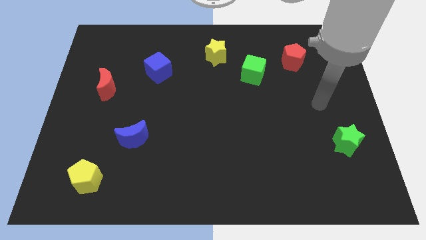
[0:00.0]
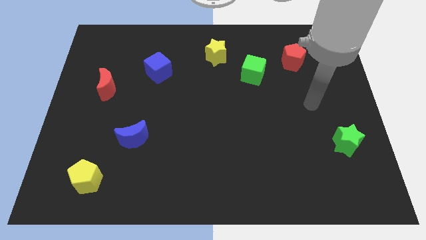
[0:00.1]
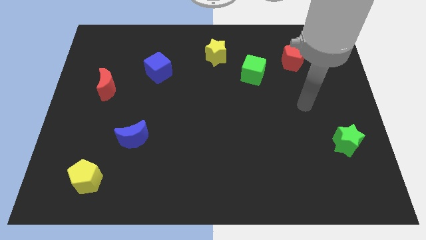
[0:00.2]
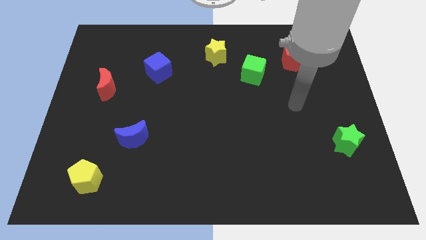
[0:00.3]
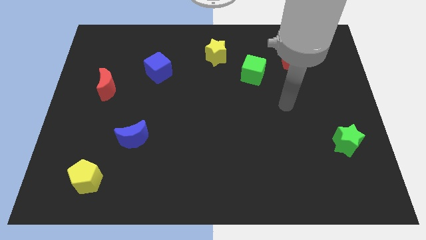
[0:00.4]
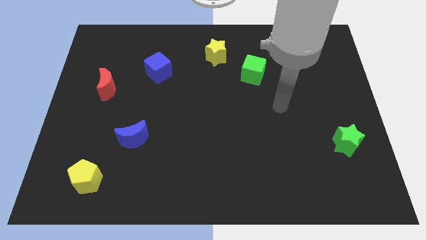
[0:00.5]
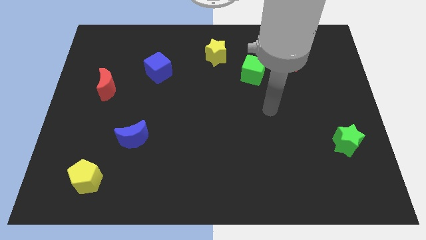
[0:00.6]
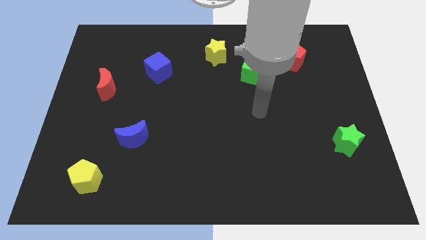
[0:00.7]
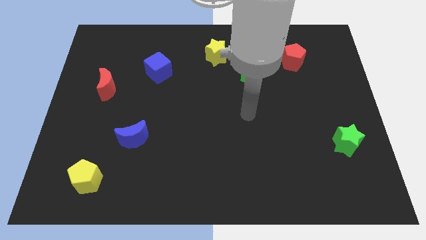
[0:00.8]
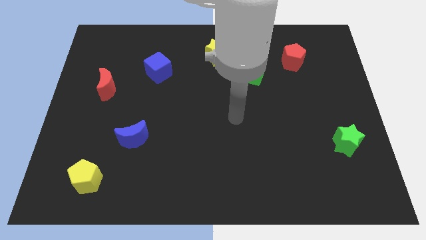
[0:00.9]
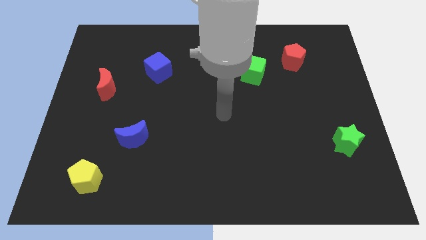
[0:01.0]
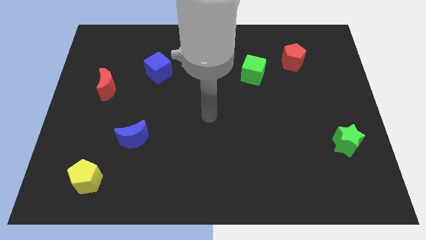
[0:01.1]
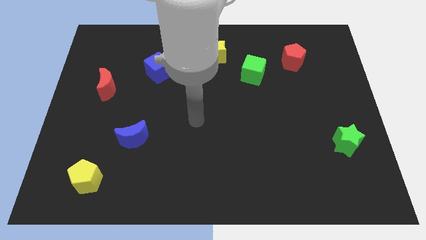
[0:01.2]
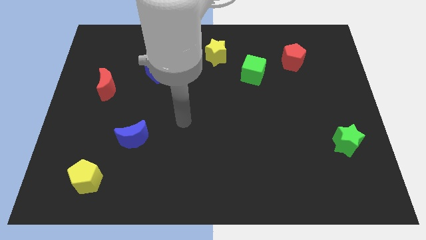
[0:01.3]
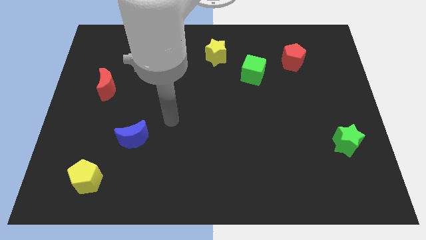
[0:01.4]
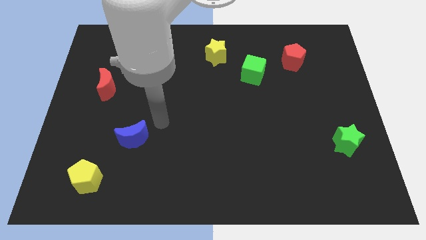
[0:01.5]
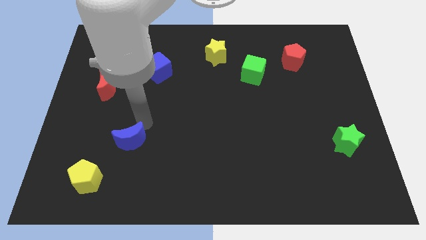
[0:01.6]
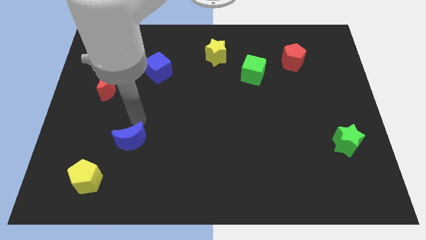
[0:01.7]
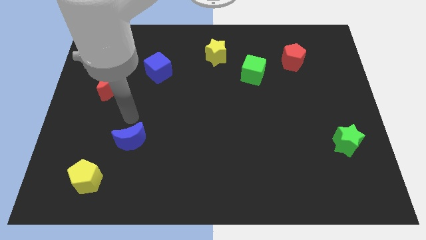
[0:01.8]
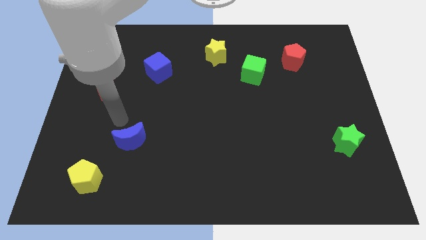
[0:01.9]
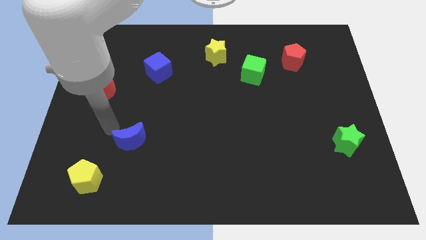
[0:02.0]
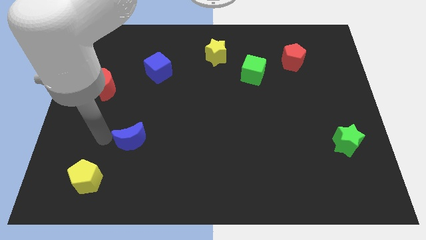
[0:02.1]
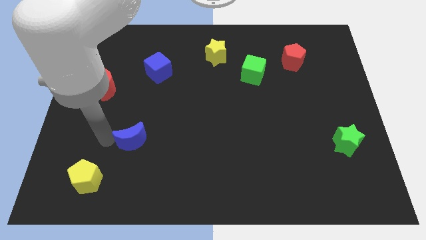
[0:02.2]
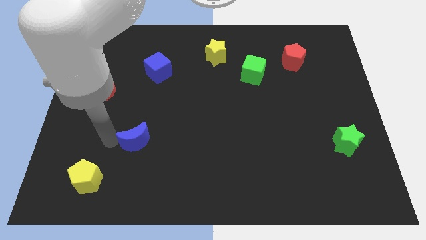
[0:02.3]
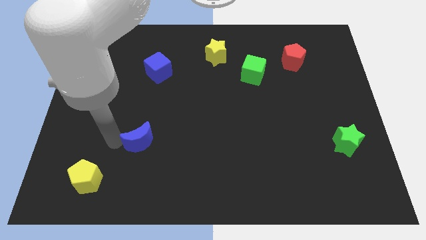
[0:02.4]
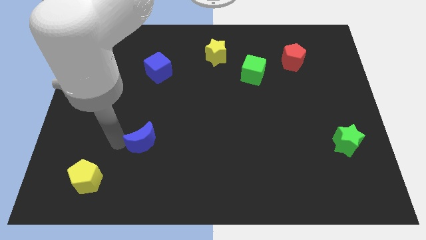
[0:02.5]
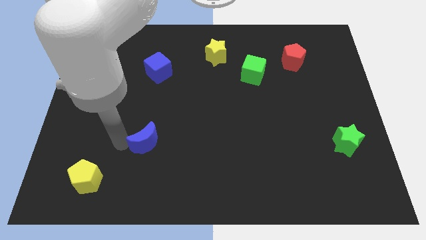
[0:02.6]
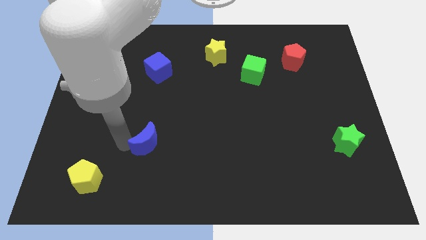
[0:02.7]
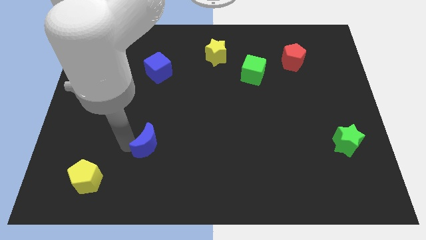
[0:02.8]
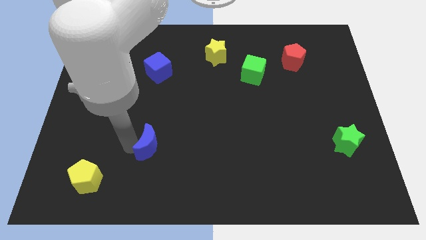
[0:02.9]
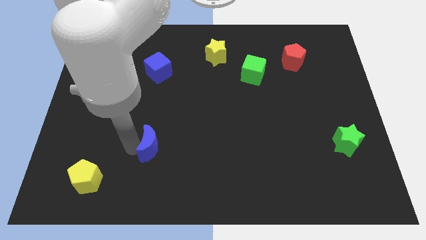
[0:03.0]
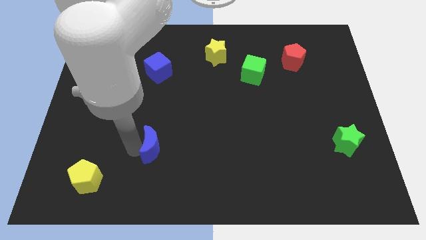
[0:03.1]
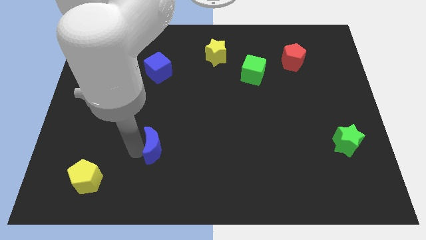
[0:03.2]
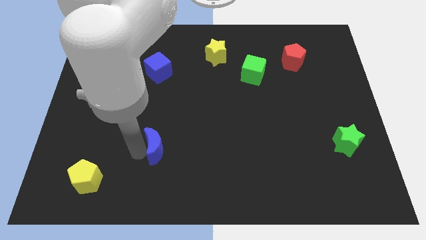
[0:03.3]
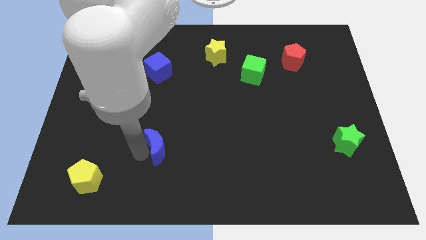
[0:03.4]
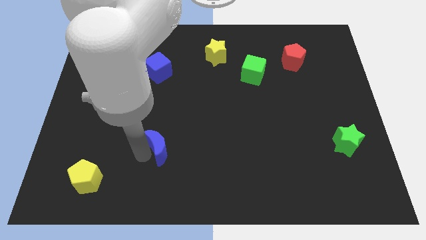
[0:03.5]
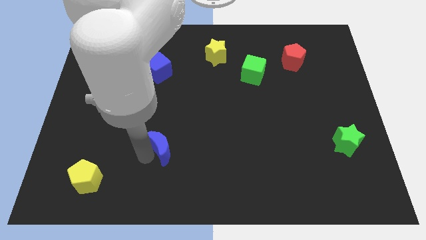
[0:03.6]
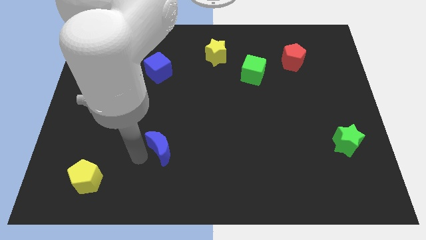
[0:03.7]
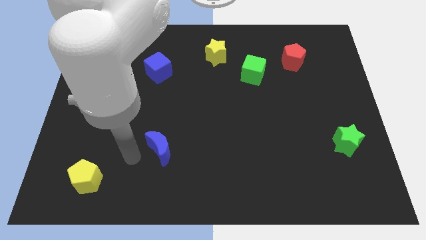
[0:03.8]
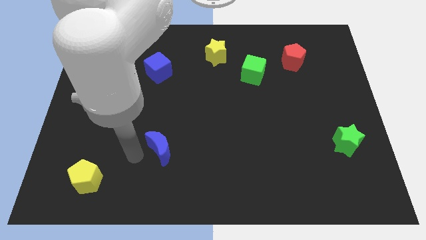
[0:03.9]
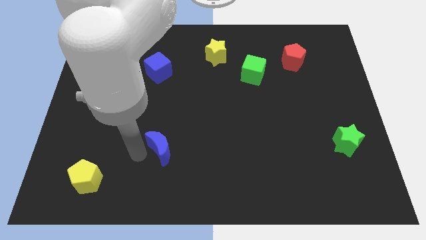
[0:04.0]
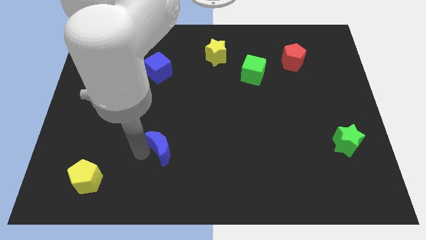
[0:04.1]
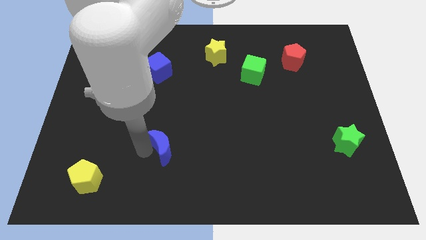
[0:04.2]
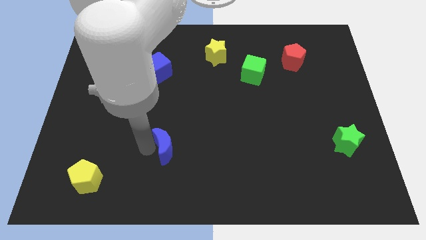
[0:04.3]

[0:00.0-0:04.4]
slightly slide the blue moon to the right

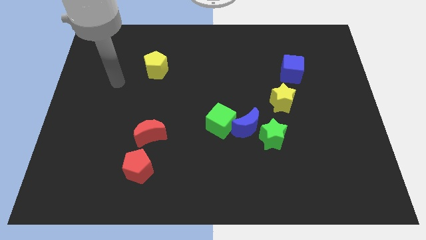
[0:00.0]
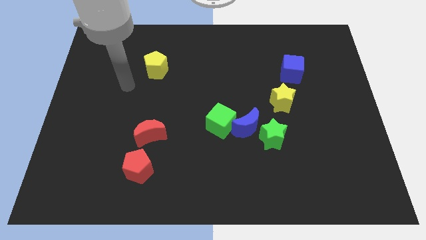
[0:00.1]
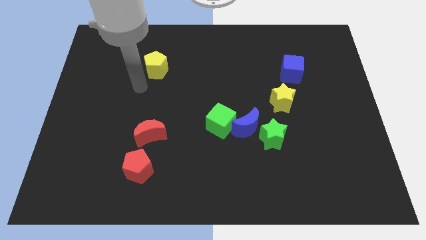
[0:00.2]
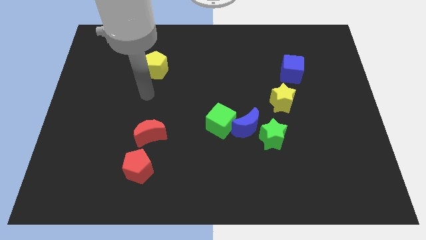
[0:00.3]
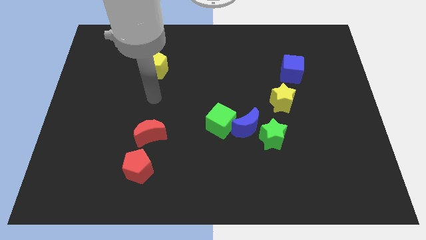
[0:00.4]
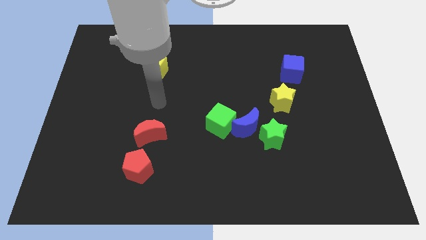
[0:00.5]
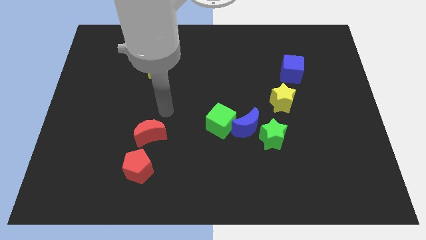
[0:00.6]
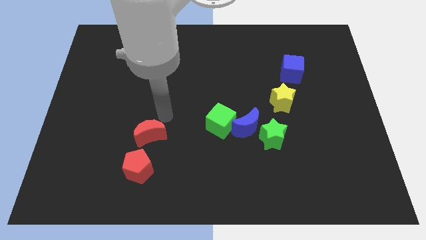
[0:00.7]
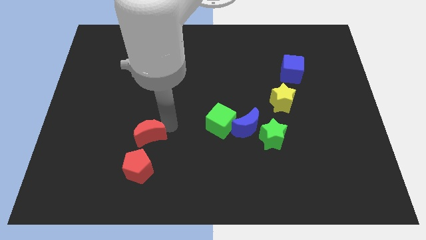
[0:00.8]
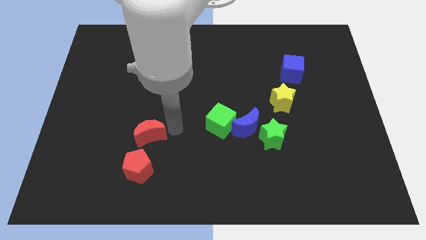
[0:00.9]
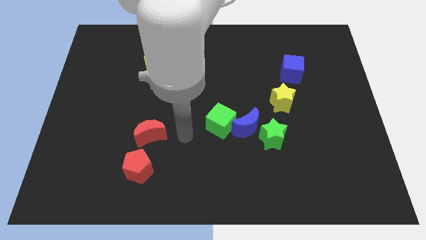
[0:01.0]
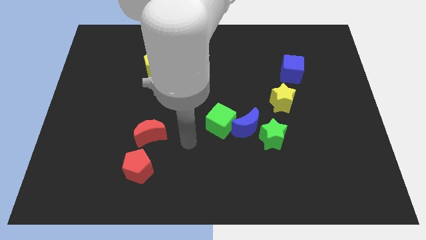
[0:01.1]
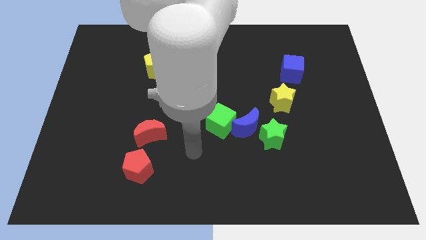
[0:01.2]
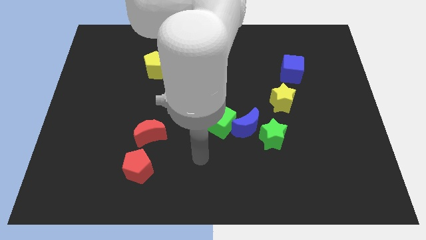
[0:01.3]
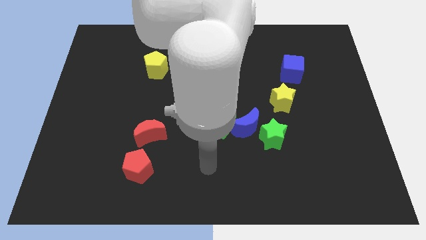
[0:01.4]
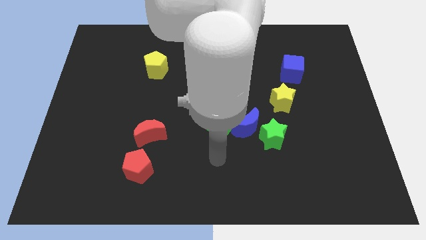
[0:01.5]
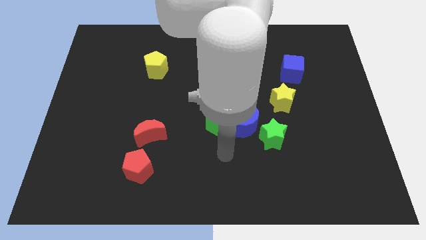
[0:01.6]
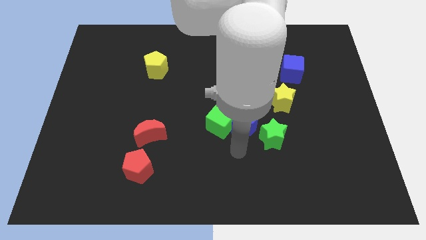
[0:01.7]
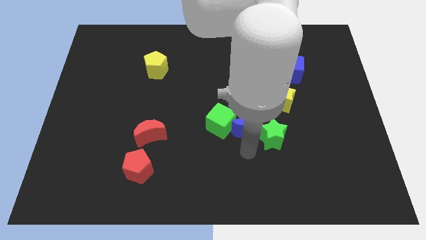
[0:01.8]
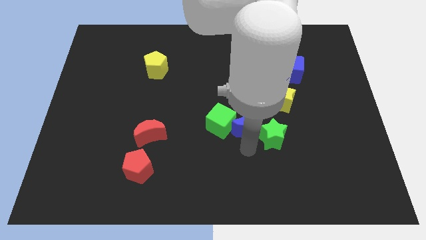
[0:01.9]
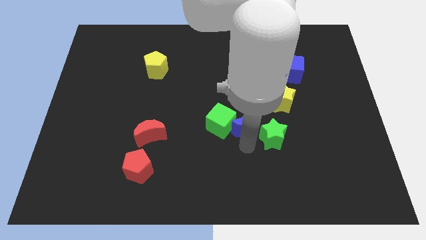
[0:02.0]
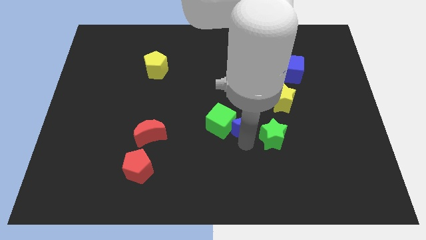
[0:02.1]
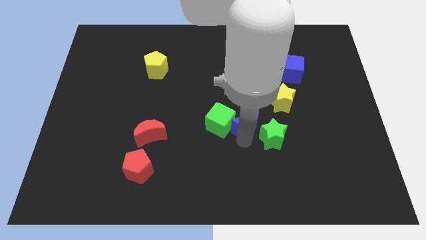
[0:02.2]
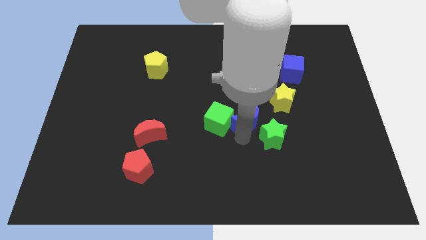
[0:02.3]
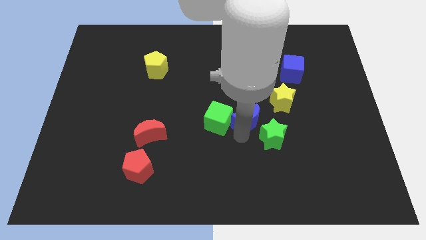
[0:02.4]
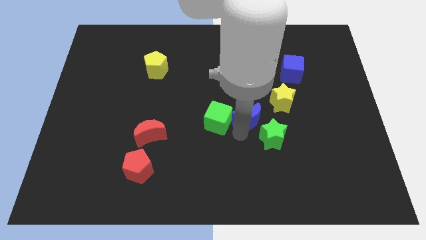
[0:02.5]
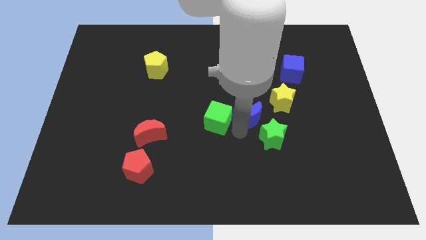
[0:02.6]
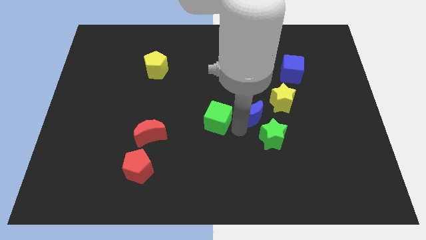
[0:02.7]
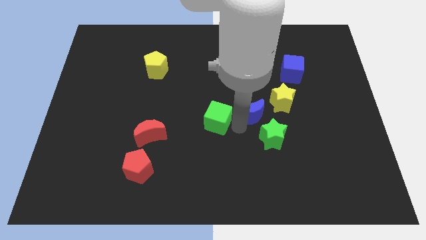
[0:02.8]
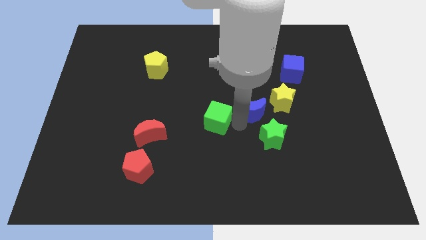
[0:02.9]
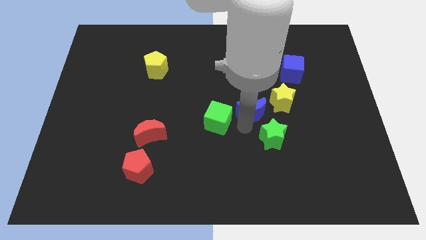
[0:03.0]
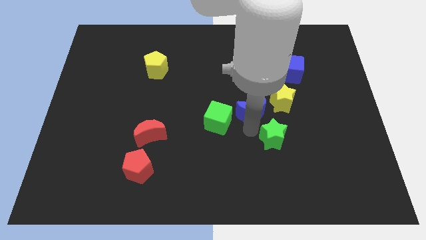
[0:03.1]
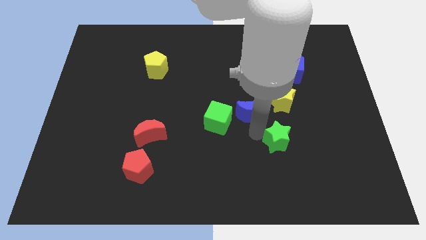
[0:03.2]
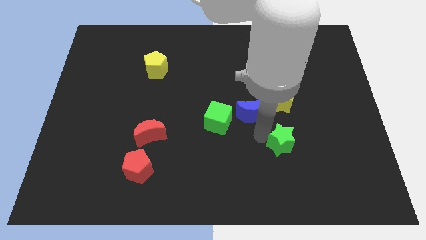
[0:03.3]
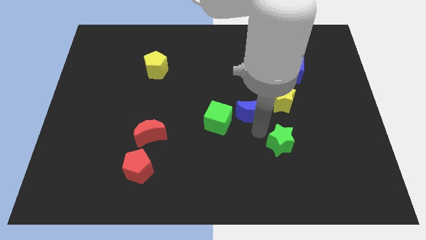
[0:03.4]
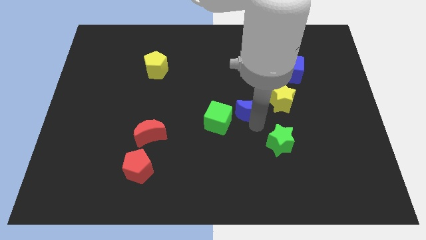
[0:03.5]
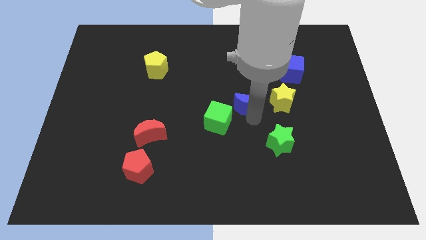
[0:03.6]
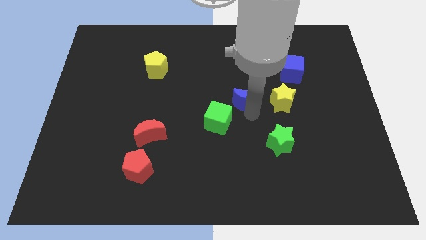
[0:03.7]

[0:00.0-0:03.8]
slide the blue moon a bit up

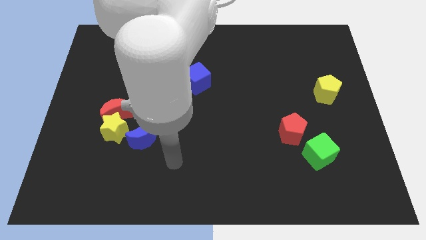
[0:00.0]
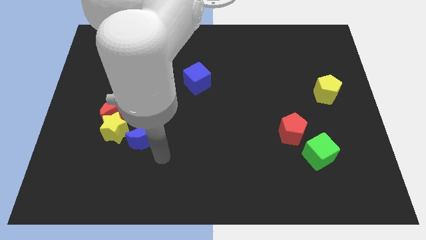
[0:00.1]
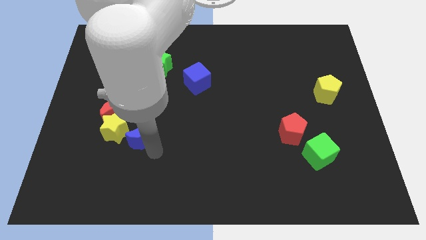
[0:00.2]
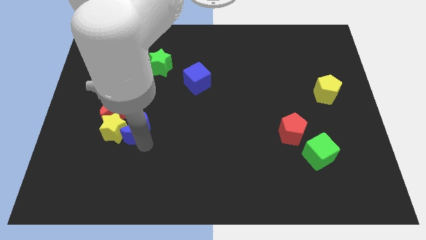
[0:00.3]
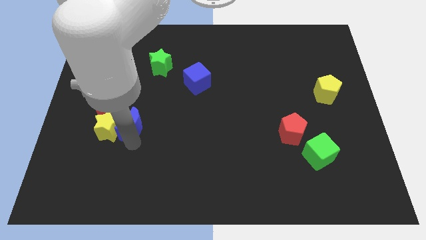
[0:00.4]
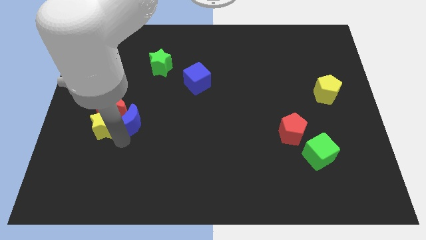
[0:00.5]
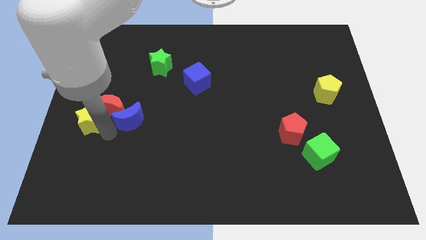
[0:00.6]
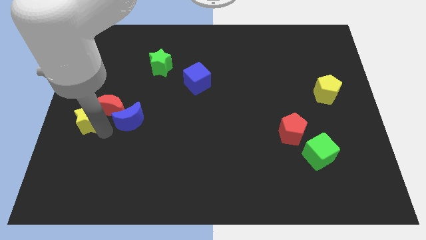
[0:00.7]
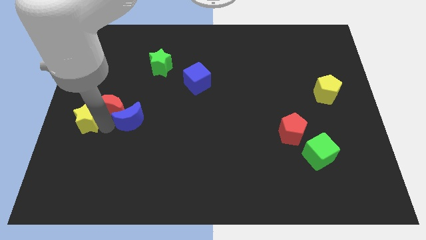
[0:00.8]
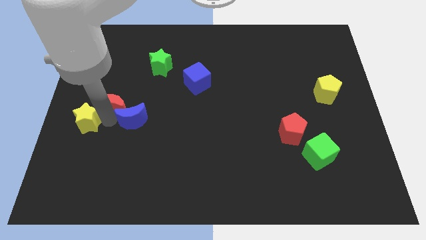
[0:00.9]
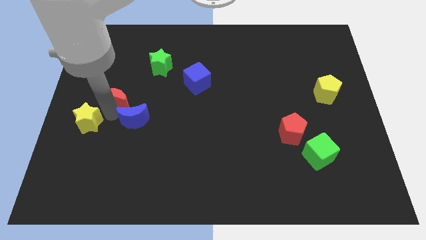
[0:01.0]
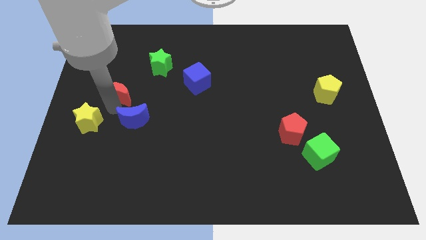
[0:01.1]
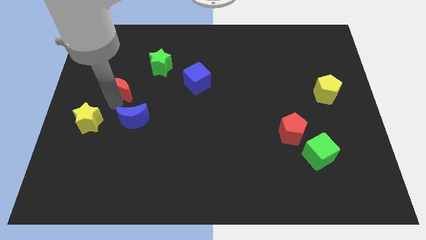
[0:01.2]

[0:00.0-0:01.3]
slide the red moon upwards somewhat
